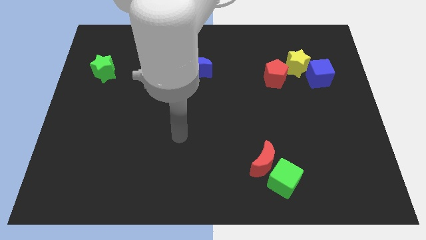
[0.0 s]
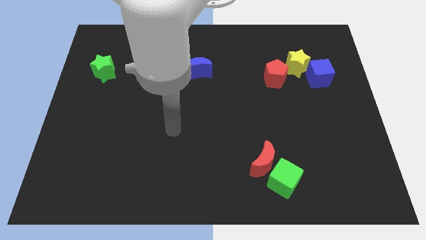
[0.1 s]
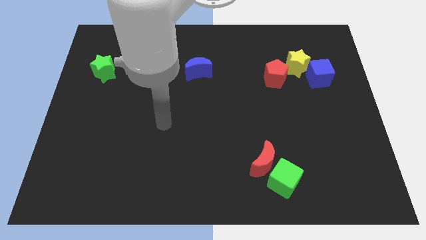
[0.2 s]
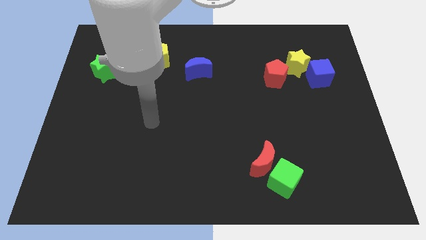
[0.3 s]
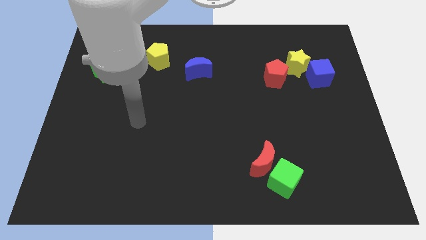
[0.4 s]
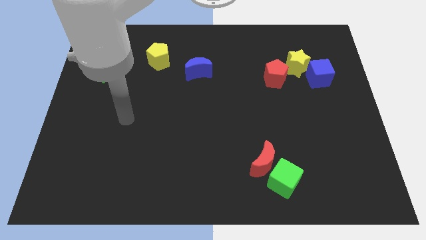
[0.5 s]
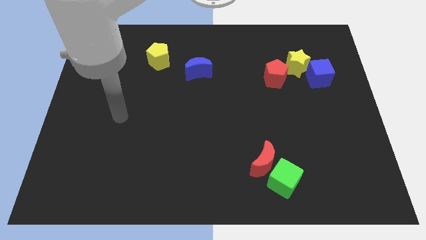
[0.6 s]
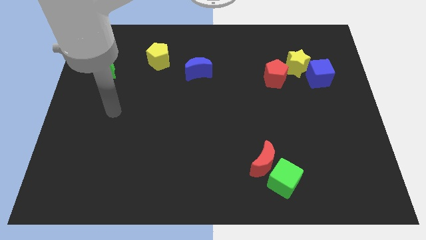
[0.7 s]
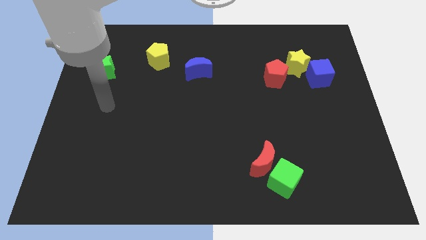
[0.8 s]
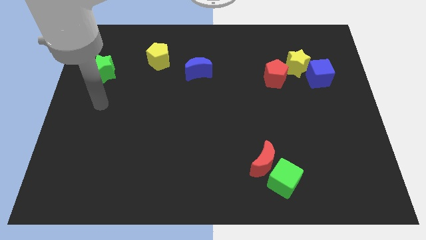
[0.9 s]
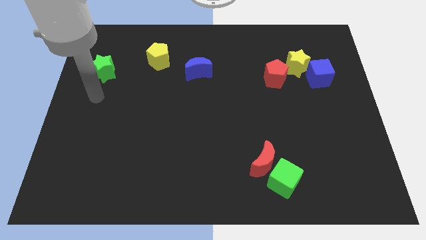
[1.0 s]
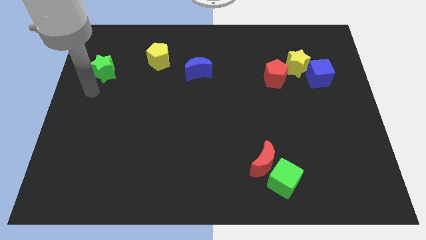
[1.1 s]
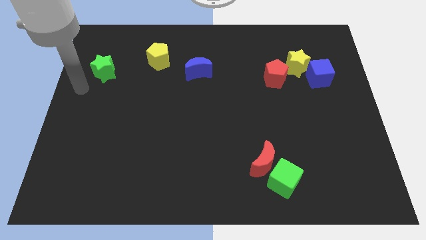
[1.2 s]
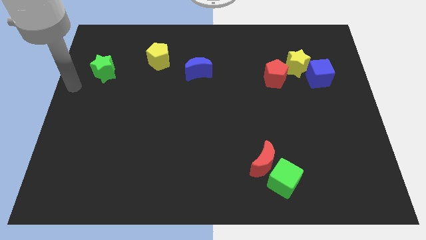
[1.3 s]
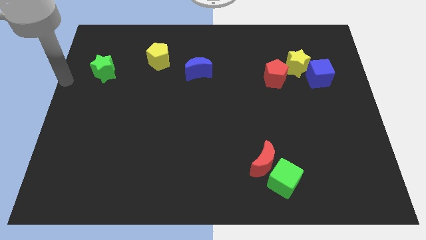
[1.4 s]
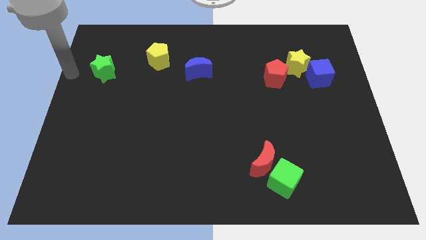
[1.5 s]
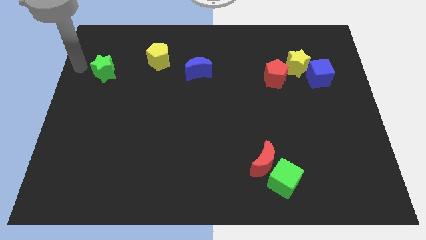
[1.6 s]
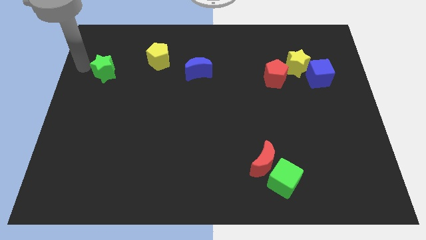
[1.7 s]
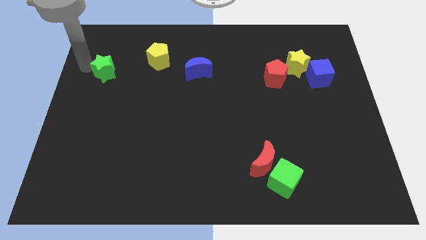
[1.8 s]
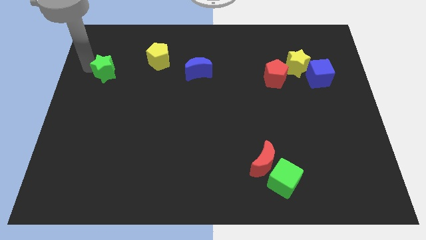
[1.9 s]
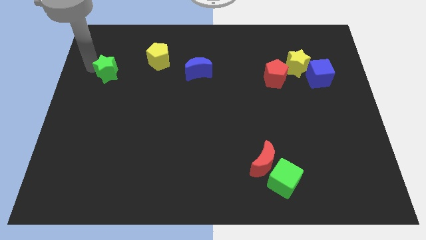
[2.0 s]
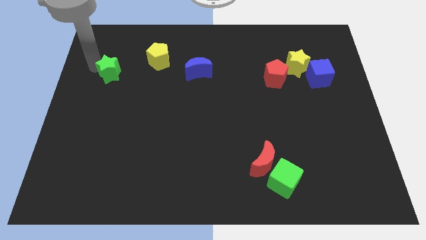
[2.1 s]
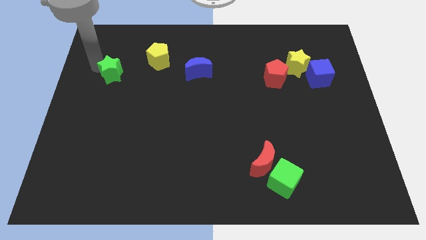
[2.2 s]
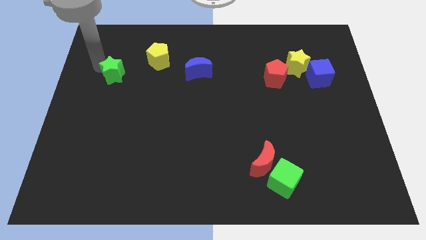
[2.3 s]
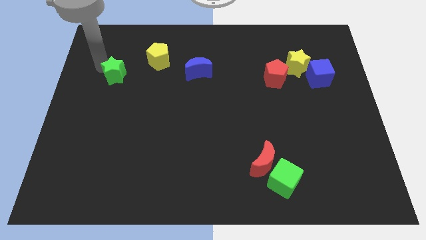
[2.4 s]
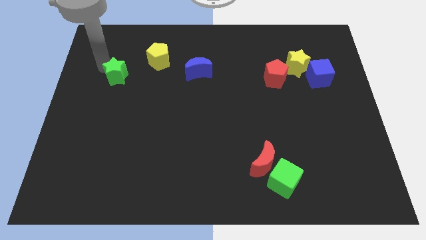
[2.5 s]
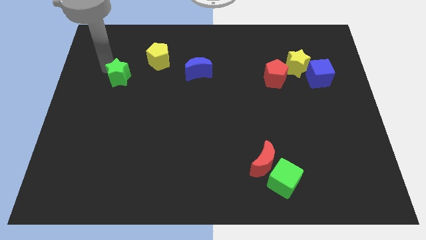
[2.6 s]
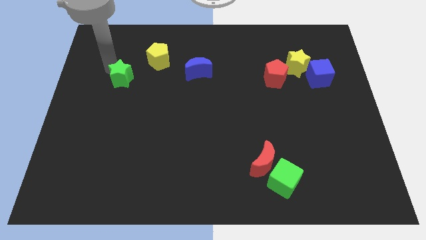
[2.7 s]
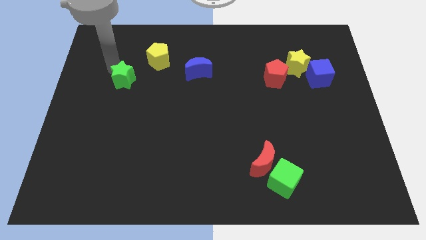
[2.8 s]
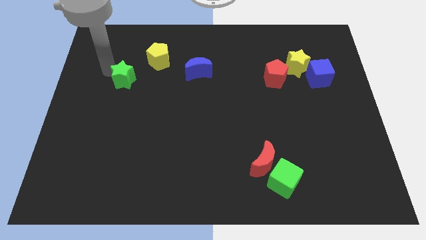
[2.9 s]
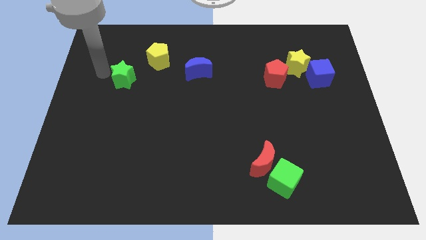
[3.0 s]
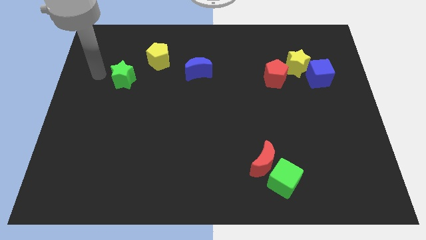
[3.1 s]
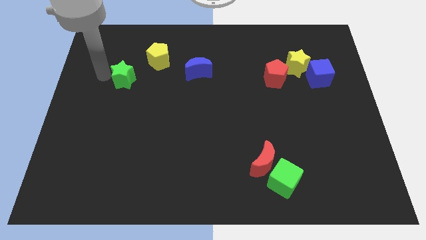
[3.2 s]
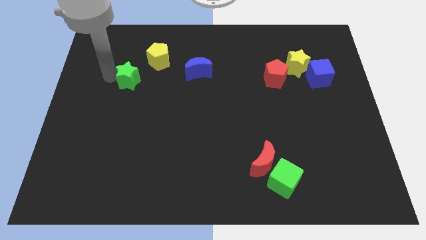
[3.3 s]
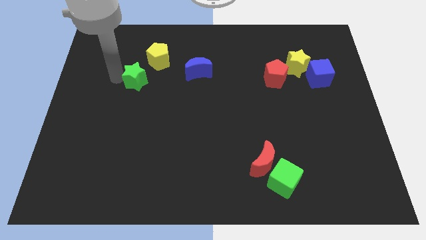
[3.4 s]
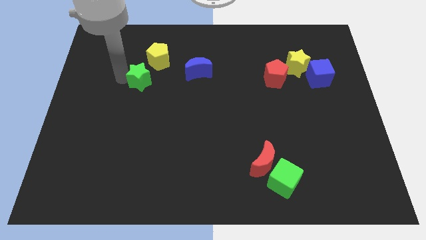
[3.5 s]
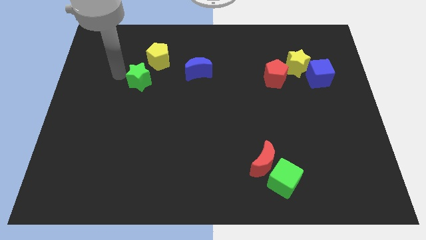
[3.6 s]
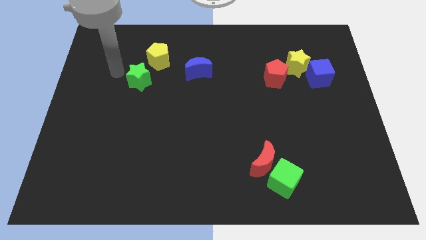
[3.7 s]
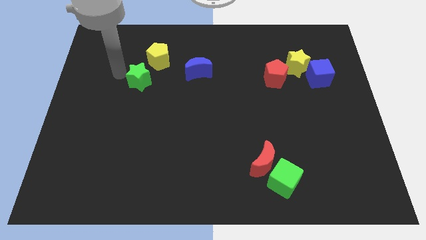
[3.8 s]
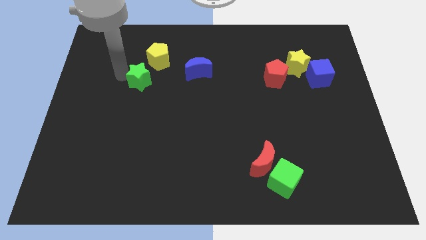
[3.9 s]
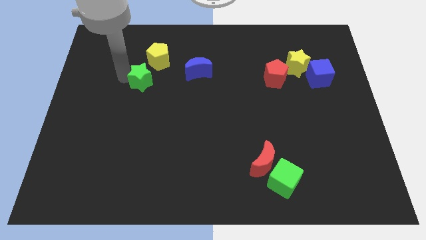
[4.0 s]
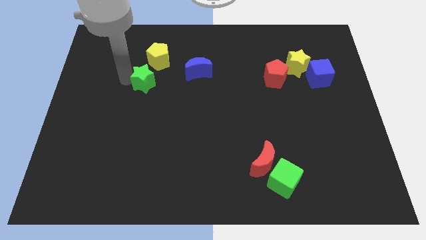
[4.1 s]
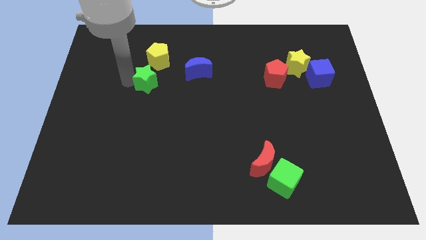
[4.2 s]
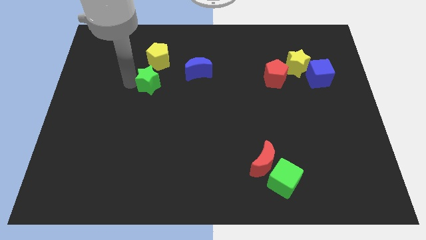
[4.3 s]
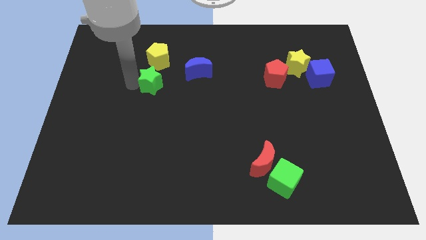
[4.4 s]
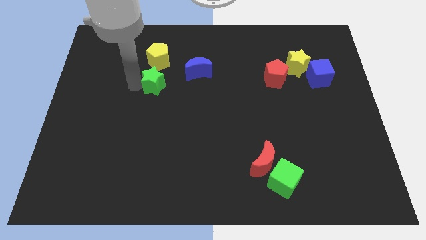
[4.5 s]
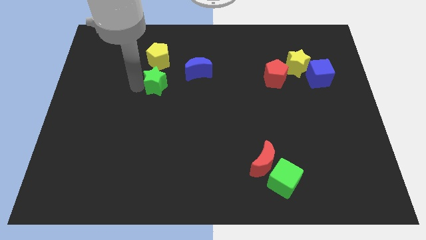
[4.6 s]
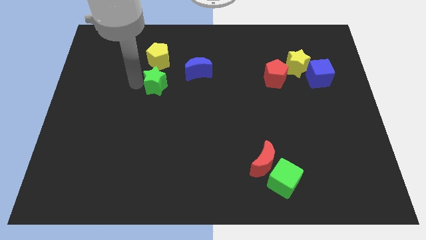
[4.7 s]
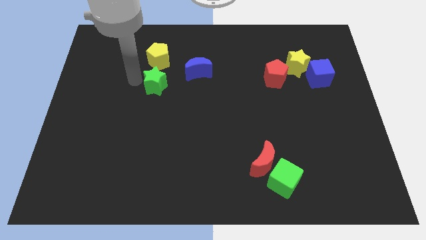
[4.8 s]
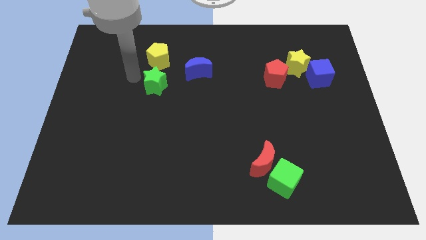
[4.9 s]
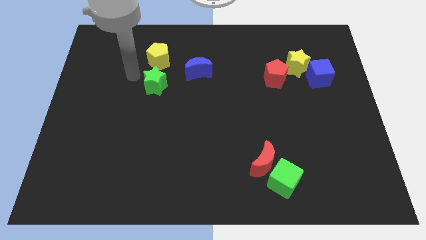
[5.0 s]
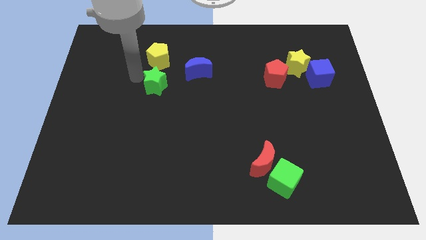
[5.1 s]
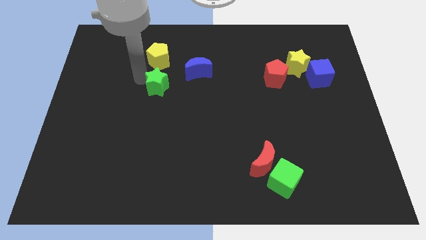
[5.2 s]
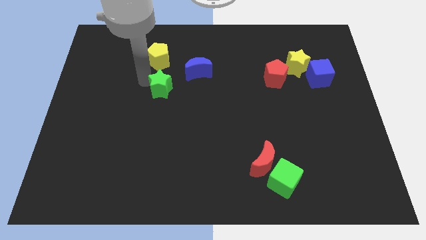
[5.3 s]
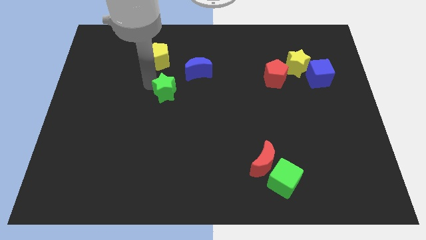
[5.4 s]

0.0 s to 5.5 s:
put the green star to the center

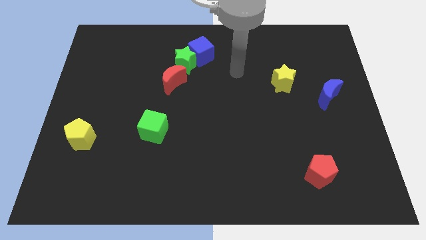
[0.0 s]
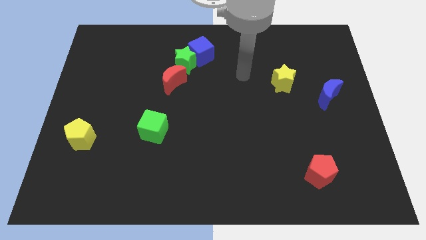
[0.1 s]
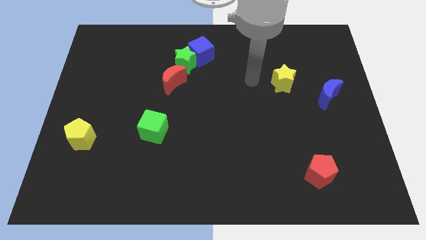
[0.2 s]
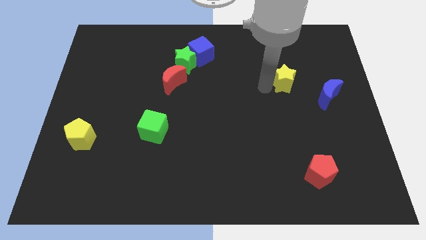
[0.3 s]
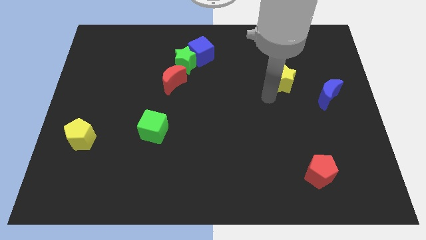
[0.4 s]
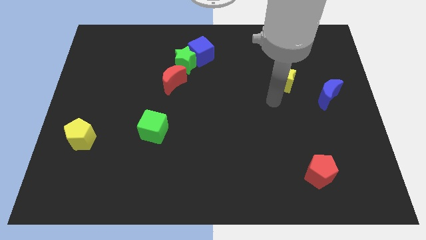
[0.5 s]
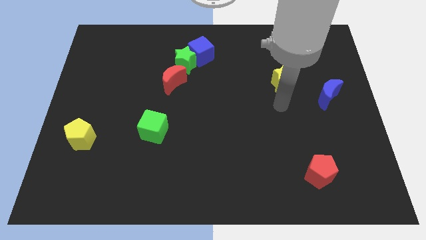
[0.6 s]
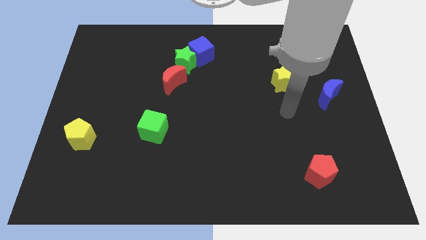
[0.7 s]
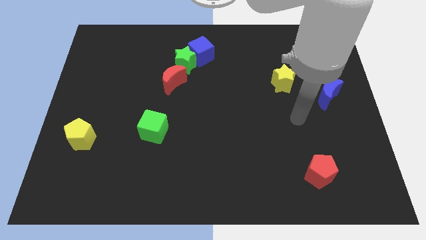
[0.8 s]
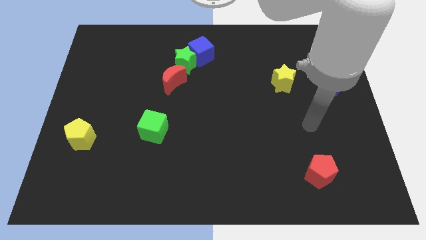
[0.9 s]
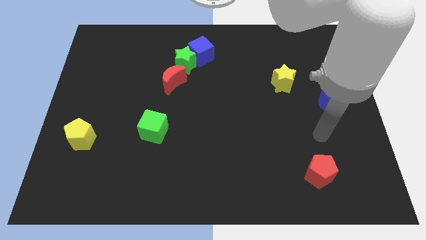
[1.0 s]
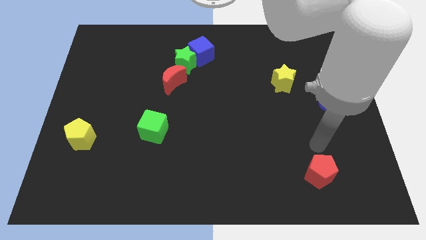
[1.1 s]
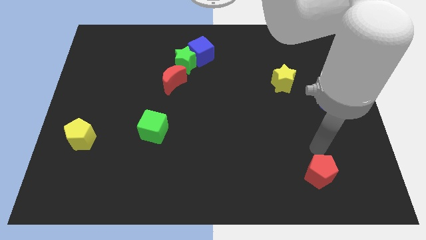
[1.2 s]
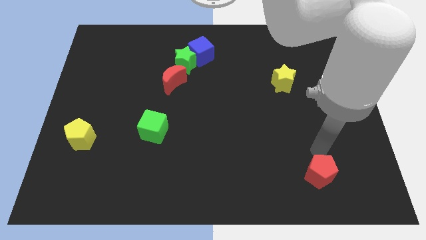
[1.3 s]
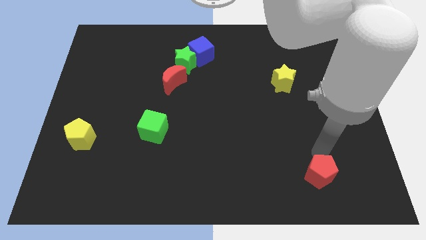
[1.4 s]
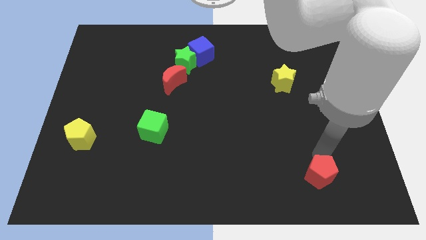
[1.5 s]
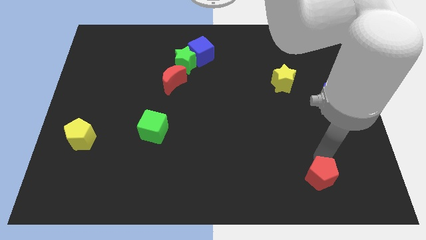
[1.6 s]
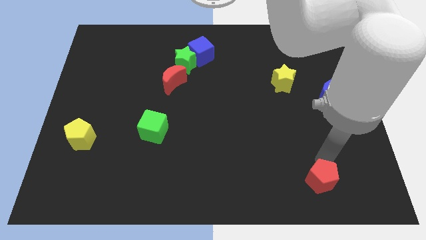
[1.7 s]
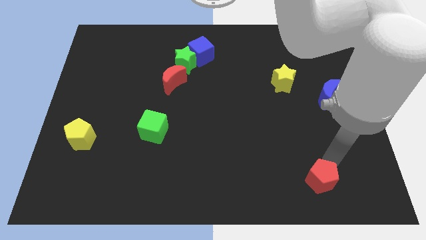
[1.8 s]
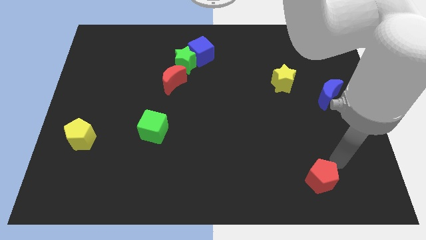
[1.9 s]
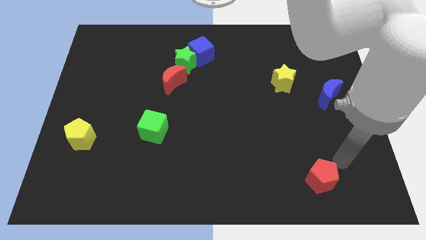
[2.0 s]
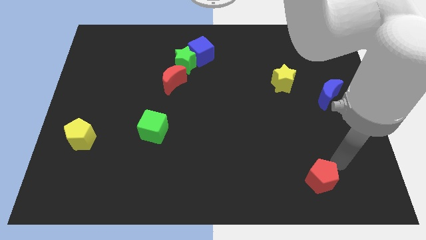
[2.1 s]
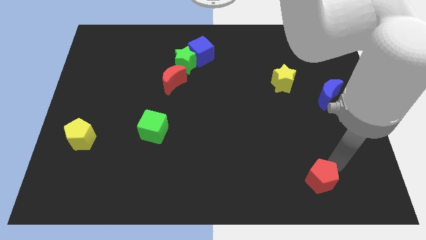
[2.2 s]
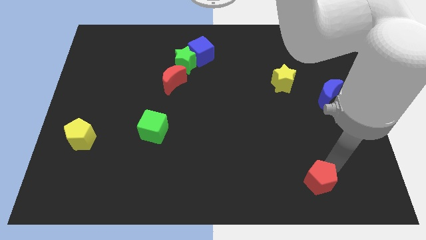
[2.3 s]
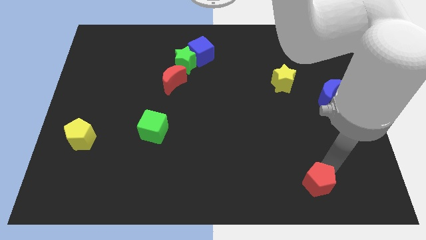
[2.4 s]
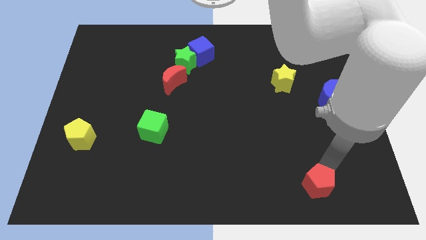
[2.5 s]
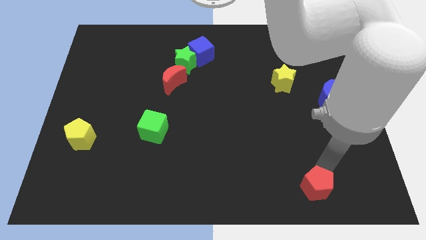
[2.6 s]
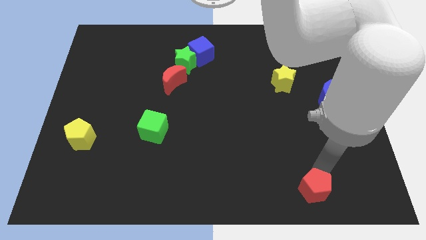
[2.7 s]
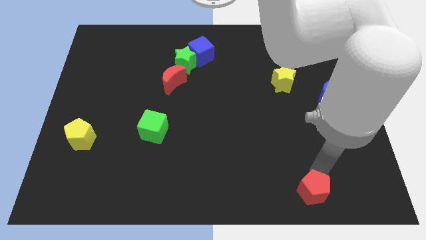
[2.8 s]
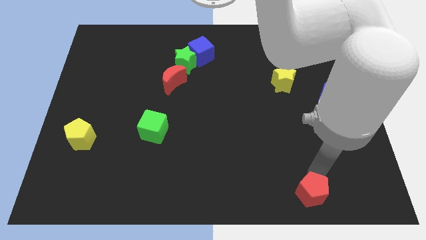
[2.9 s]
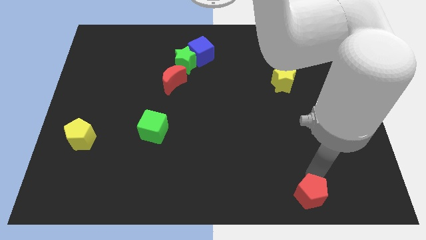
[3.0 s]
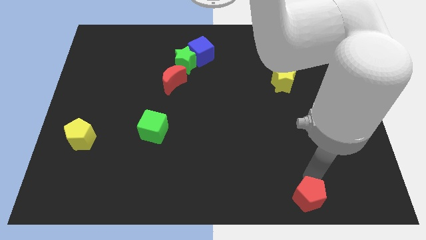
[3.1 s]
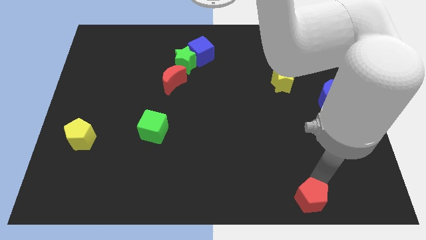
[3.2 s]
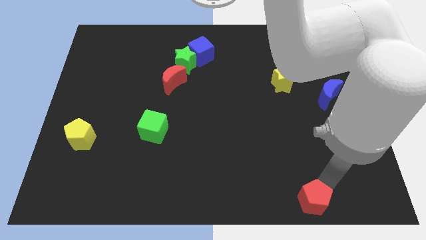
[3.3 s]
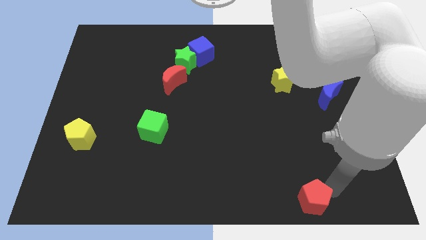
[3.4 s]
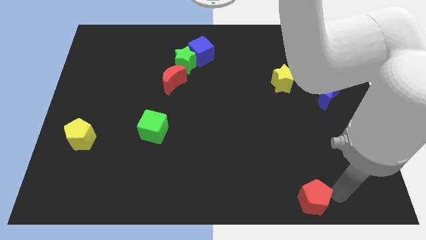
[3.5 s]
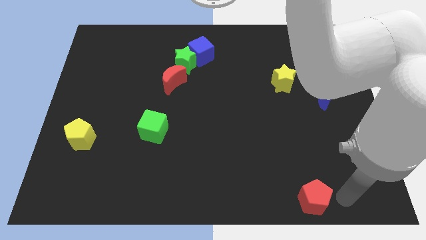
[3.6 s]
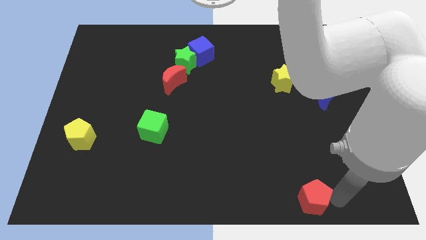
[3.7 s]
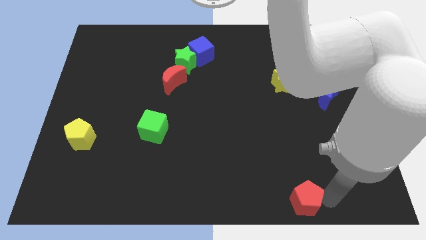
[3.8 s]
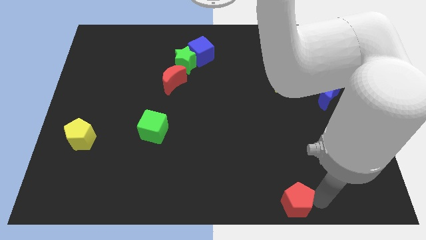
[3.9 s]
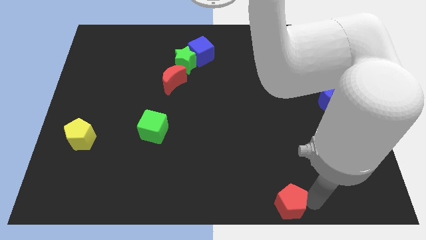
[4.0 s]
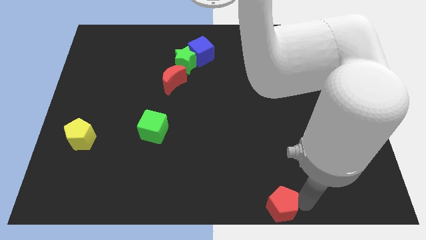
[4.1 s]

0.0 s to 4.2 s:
slide the red pentagon to the bottom side
